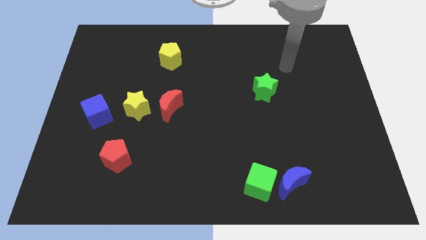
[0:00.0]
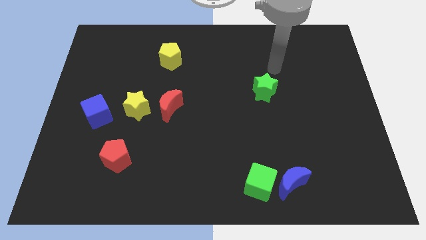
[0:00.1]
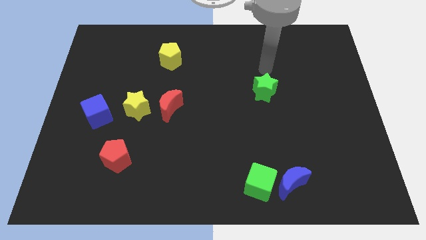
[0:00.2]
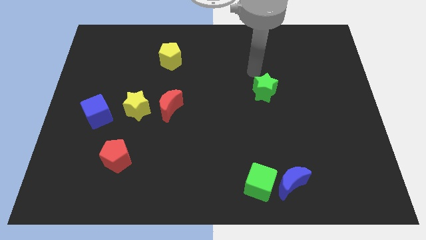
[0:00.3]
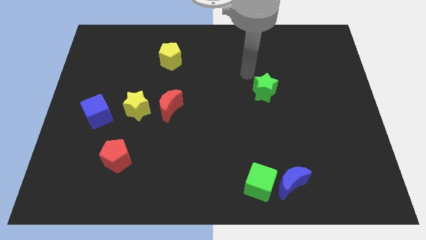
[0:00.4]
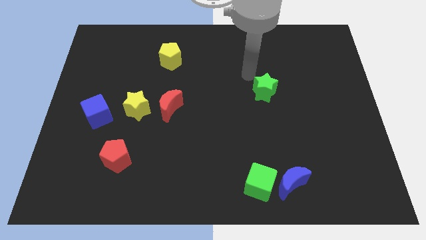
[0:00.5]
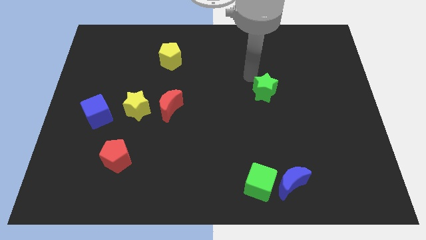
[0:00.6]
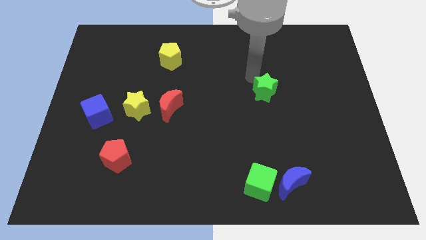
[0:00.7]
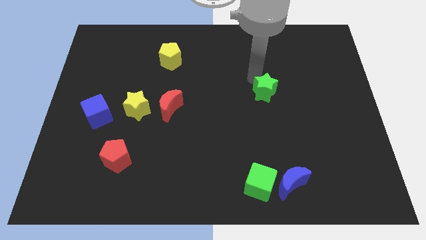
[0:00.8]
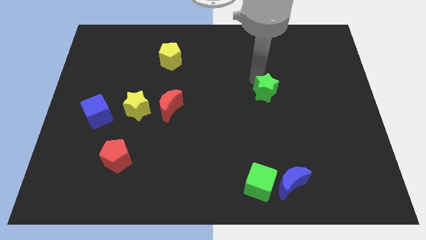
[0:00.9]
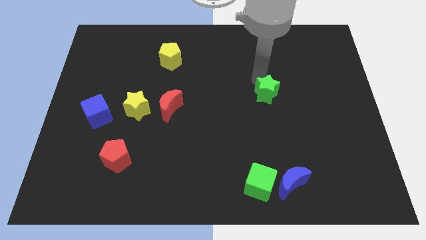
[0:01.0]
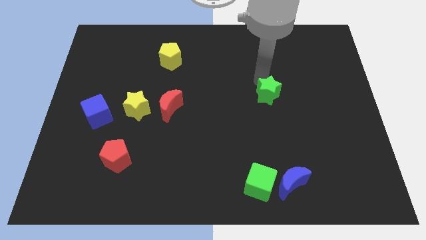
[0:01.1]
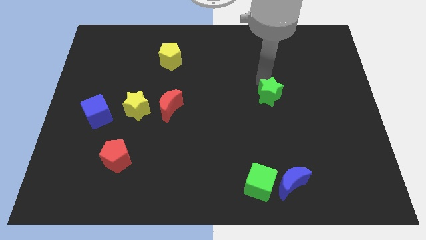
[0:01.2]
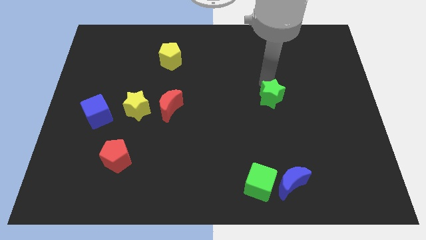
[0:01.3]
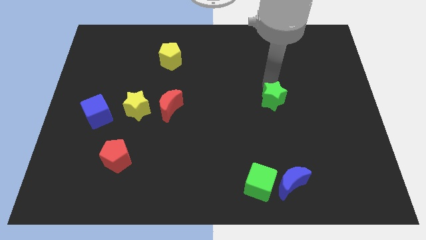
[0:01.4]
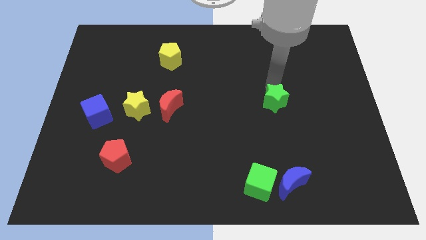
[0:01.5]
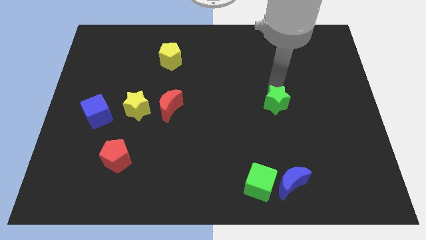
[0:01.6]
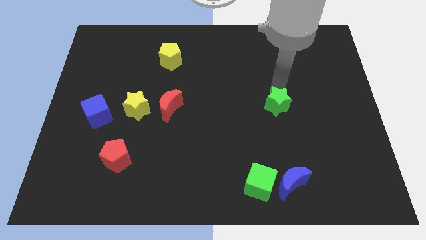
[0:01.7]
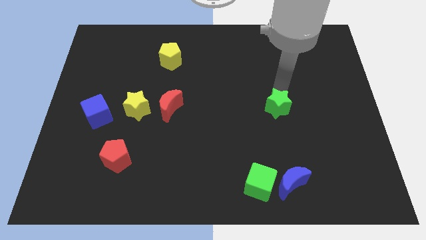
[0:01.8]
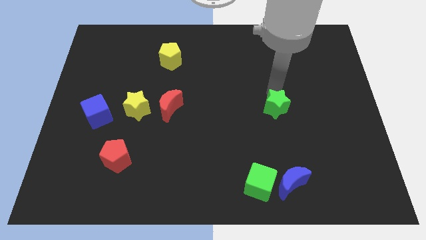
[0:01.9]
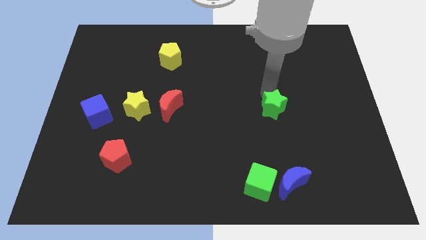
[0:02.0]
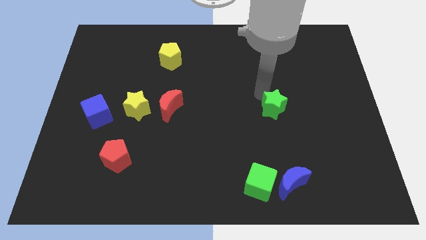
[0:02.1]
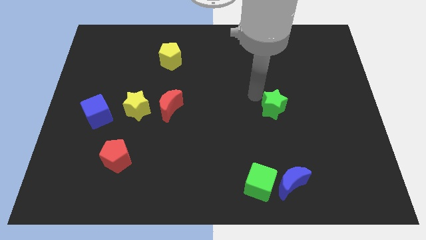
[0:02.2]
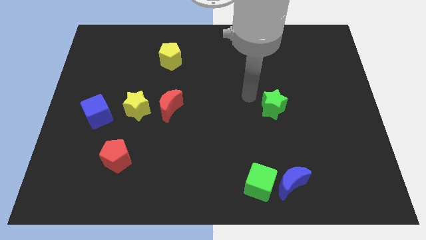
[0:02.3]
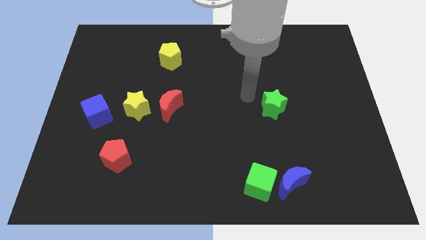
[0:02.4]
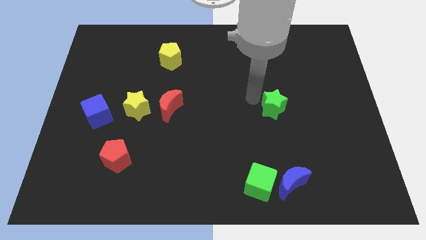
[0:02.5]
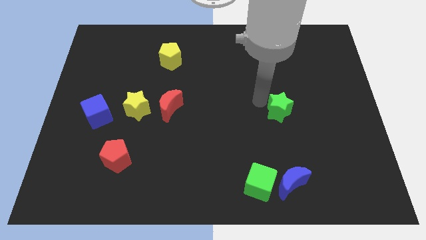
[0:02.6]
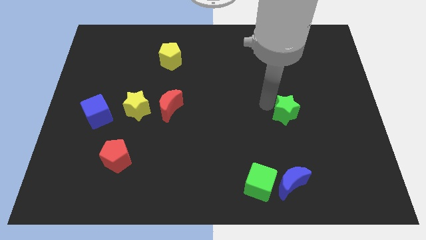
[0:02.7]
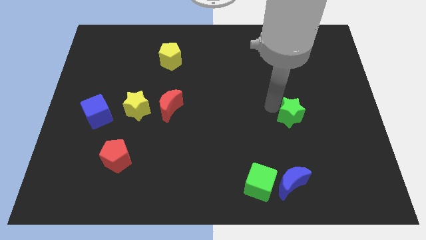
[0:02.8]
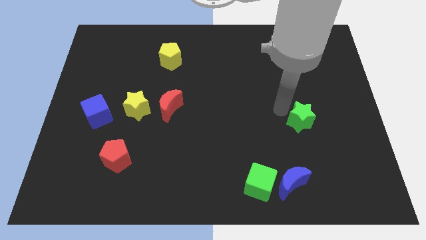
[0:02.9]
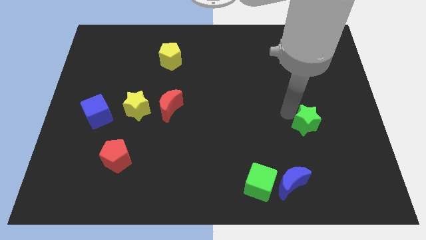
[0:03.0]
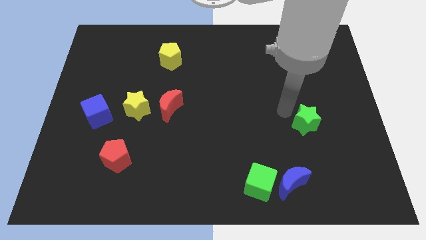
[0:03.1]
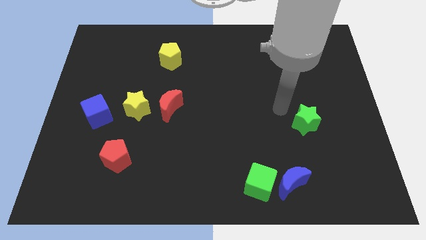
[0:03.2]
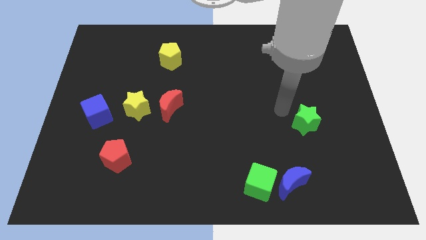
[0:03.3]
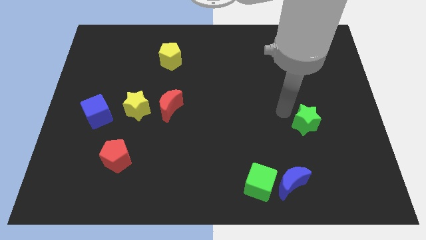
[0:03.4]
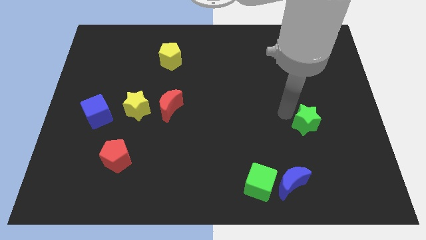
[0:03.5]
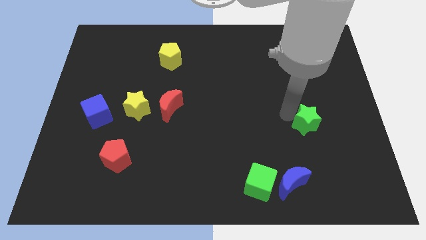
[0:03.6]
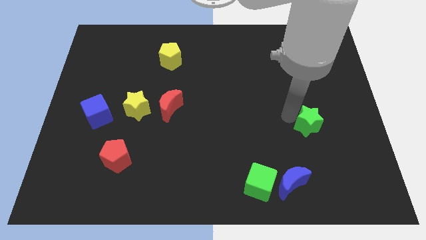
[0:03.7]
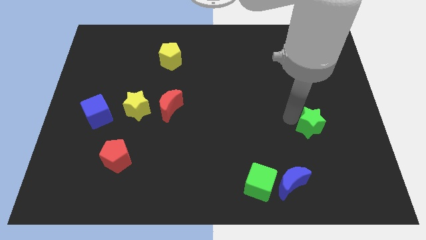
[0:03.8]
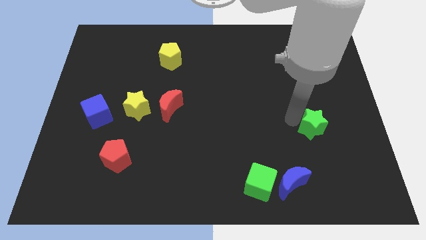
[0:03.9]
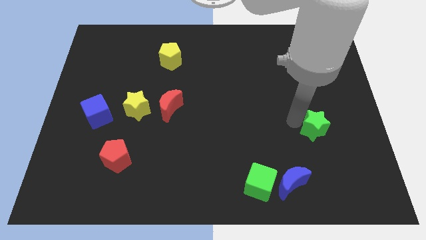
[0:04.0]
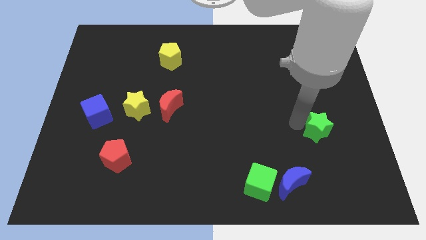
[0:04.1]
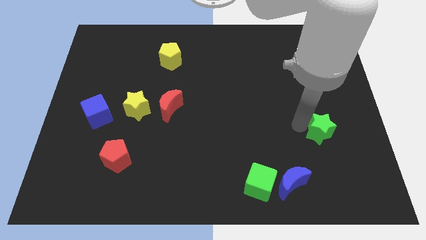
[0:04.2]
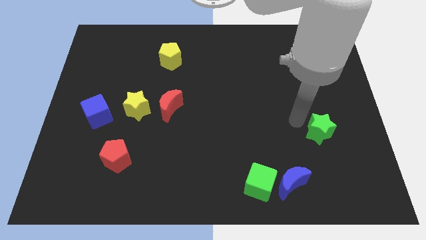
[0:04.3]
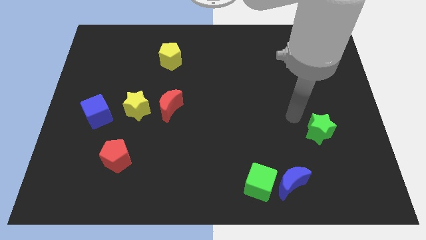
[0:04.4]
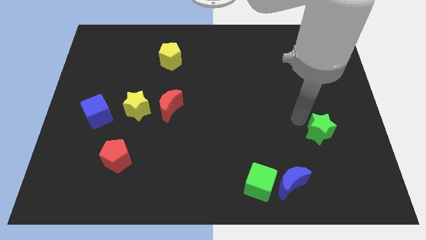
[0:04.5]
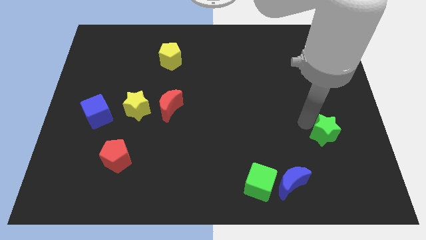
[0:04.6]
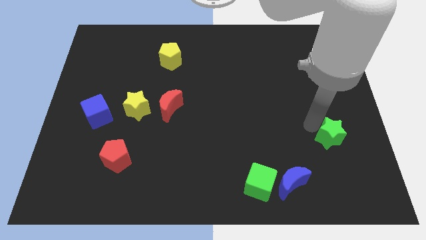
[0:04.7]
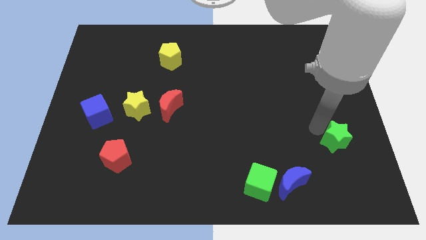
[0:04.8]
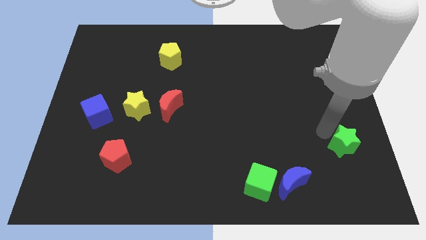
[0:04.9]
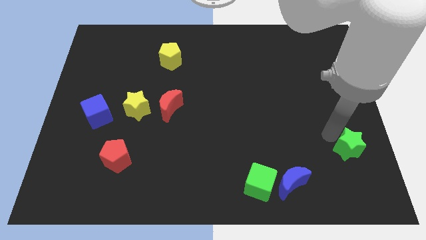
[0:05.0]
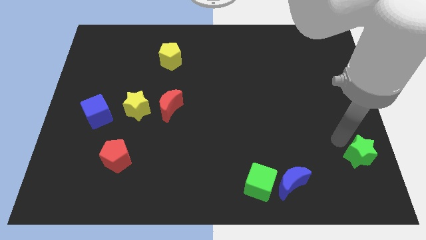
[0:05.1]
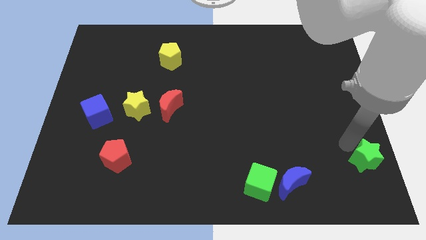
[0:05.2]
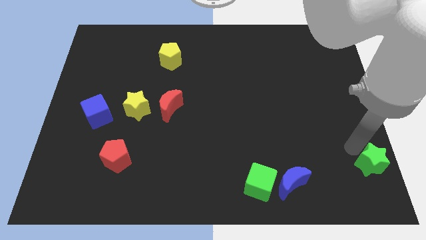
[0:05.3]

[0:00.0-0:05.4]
put the green star to the lower right corner

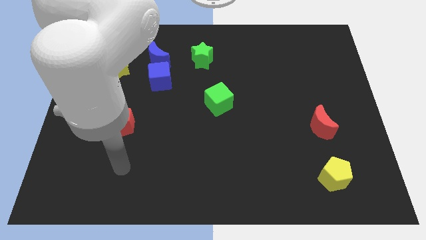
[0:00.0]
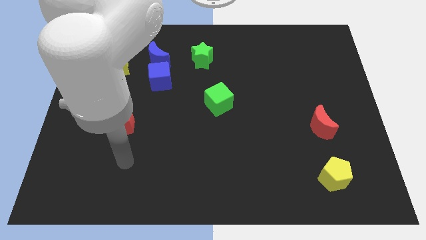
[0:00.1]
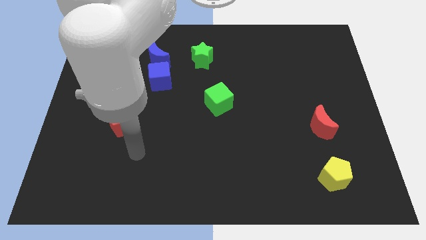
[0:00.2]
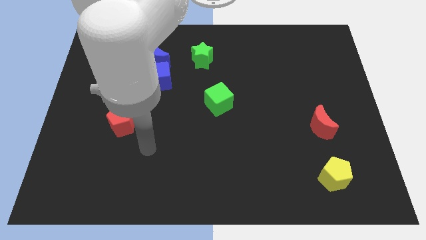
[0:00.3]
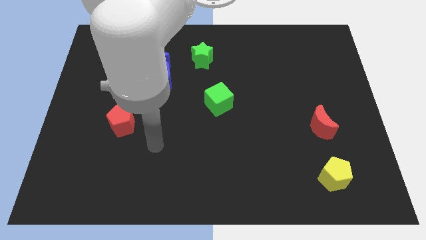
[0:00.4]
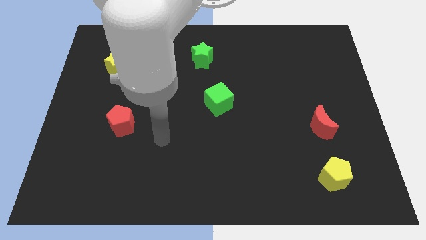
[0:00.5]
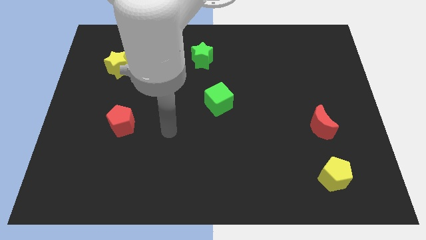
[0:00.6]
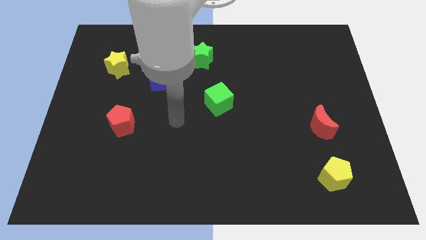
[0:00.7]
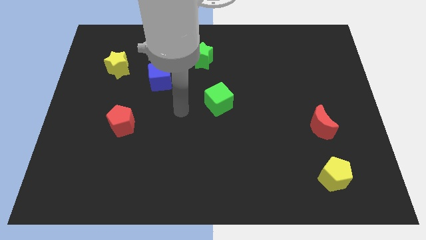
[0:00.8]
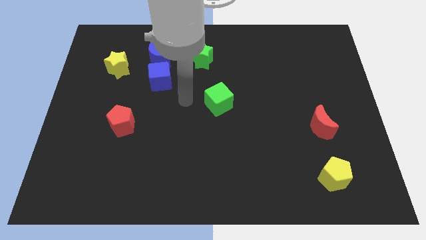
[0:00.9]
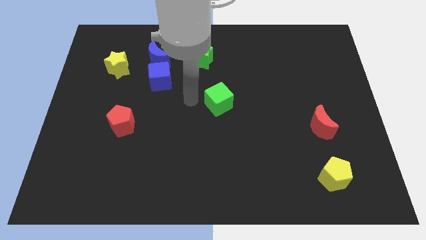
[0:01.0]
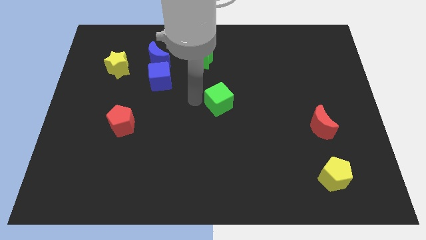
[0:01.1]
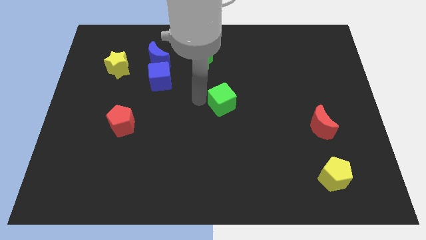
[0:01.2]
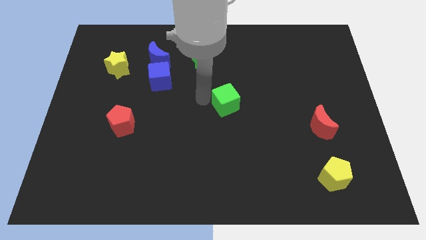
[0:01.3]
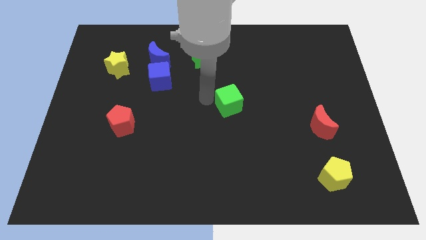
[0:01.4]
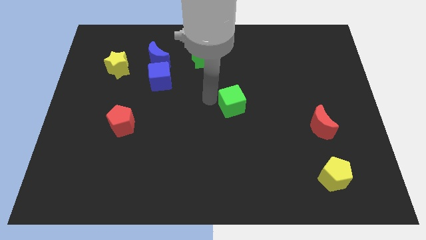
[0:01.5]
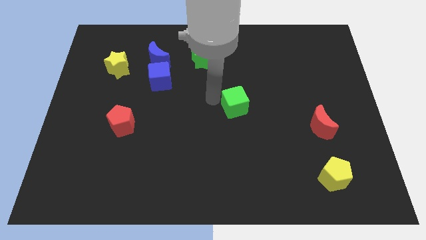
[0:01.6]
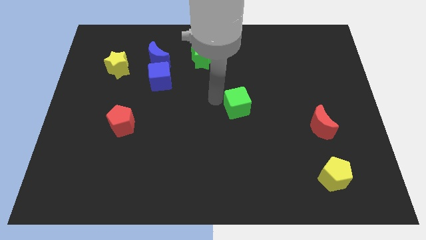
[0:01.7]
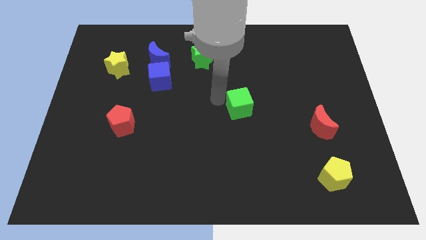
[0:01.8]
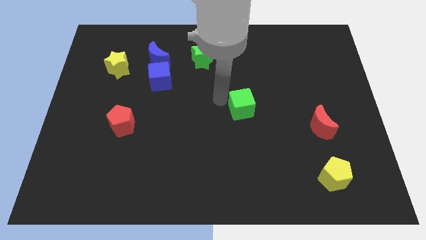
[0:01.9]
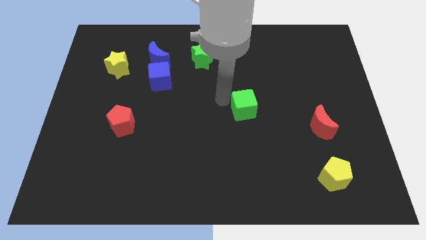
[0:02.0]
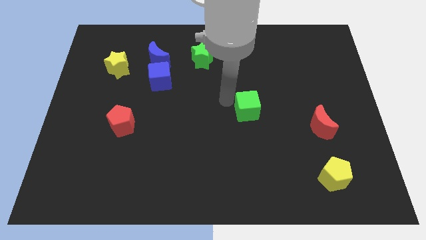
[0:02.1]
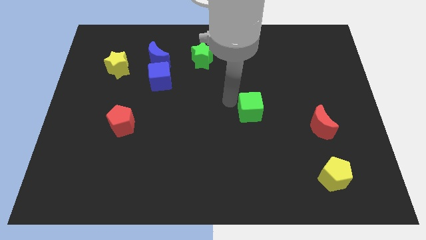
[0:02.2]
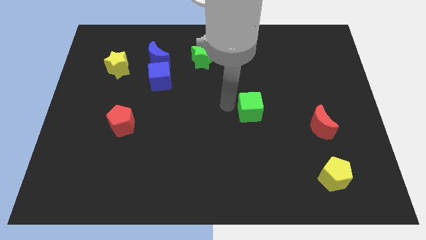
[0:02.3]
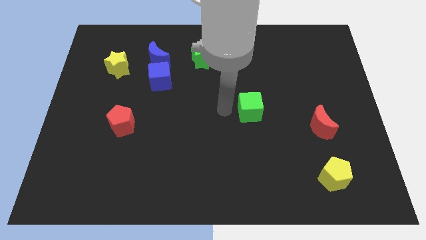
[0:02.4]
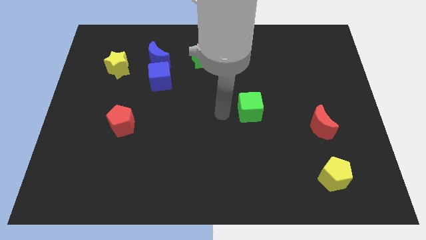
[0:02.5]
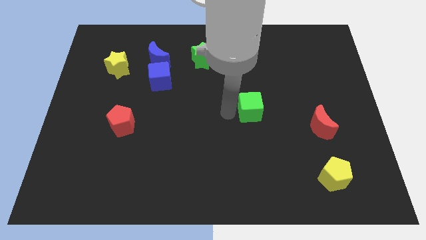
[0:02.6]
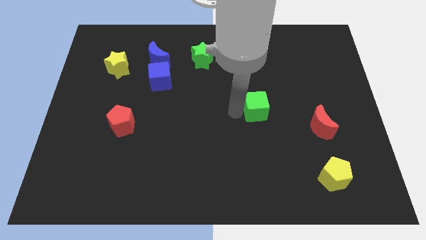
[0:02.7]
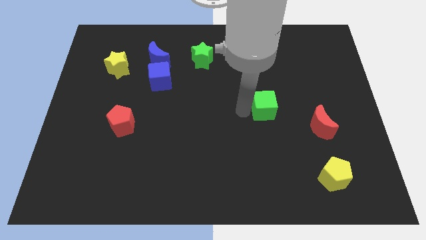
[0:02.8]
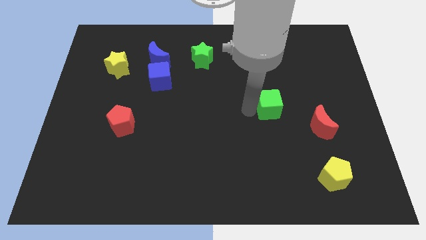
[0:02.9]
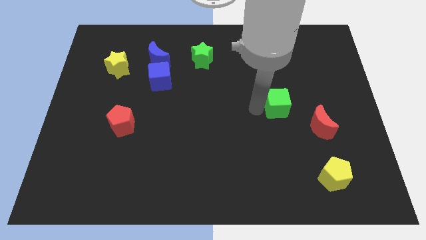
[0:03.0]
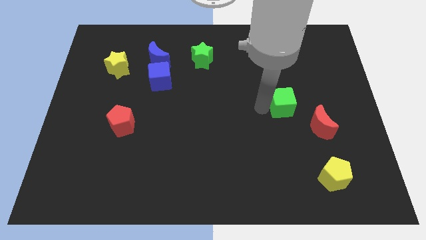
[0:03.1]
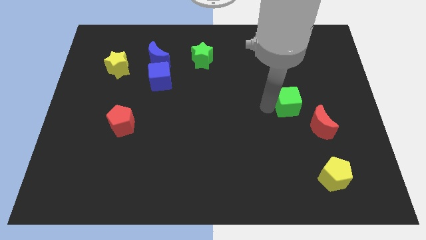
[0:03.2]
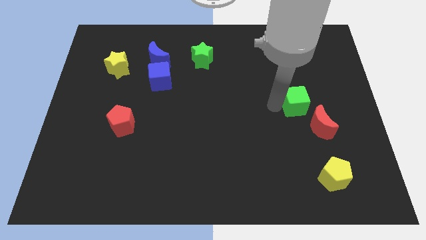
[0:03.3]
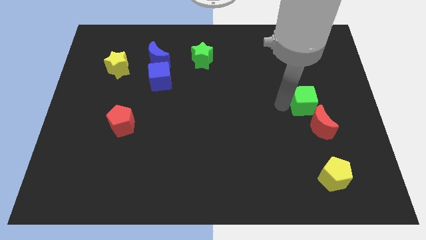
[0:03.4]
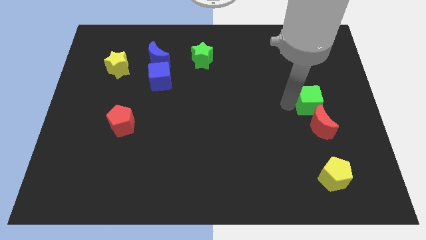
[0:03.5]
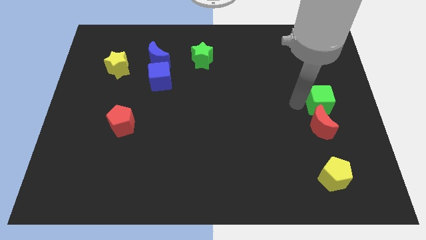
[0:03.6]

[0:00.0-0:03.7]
slide the green cube to the right side
